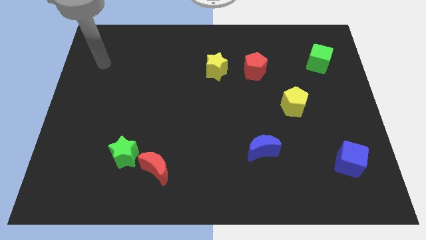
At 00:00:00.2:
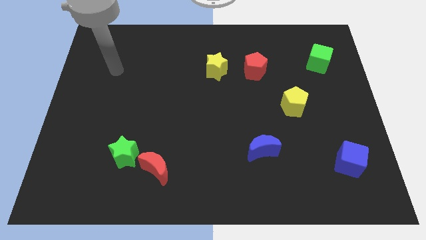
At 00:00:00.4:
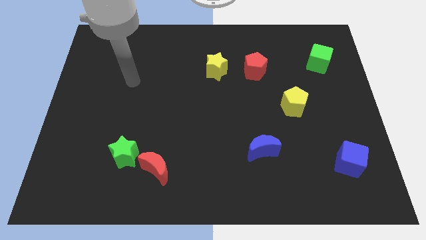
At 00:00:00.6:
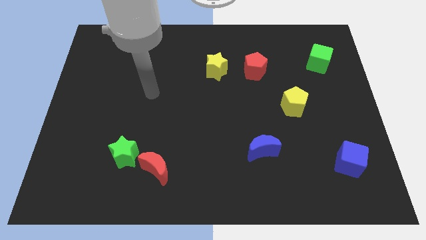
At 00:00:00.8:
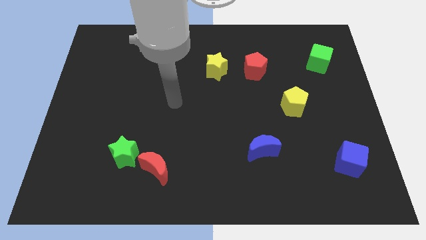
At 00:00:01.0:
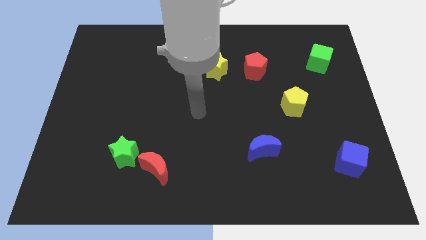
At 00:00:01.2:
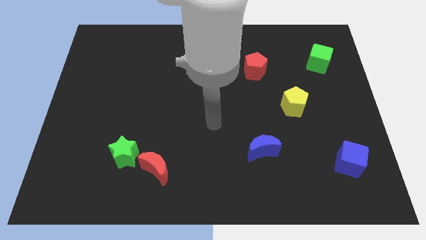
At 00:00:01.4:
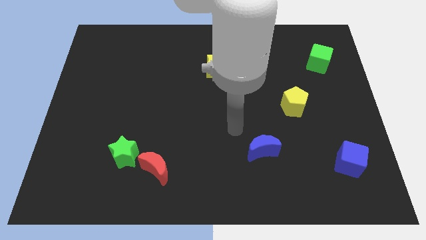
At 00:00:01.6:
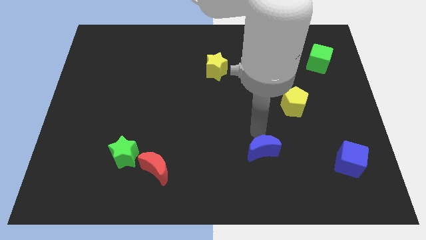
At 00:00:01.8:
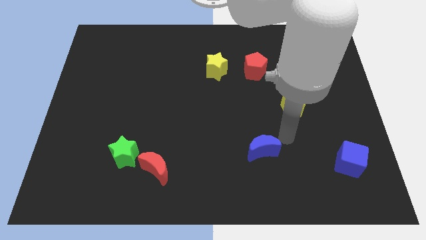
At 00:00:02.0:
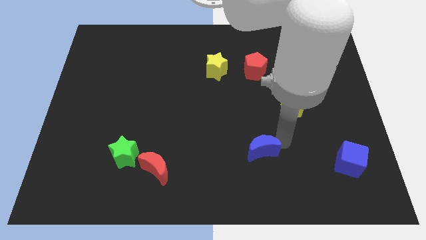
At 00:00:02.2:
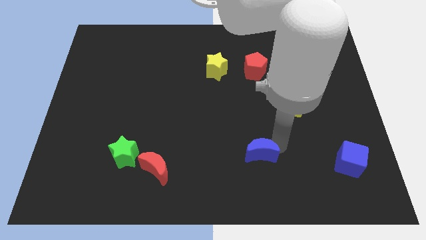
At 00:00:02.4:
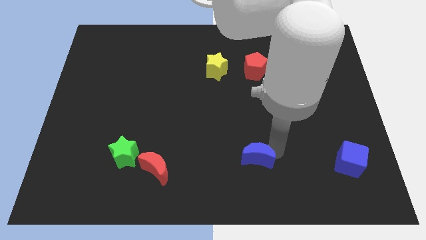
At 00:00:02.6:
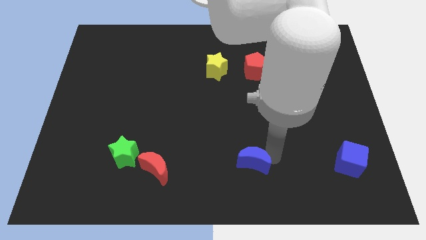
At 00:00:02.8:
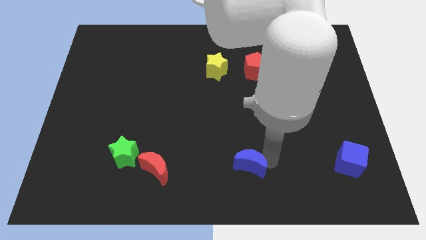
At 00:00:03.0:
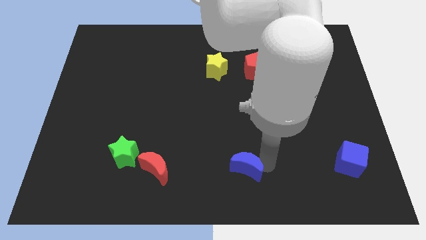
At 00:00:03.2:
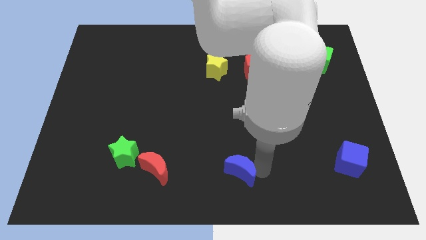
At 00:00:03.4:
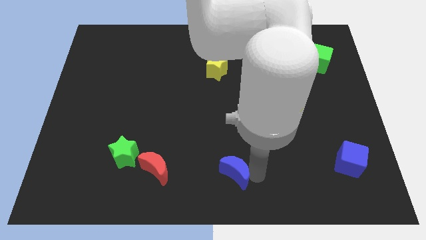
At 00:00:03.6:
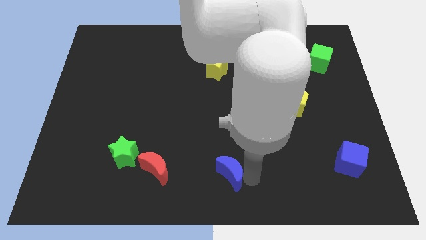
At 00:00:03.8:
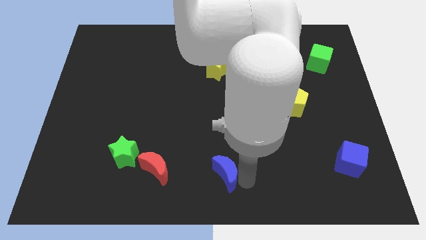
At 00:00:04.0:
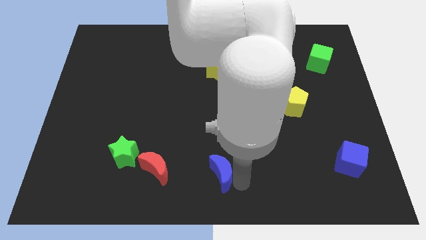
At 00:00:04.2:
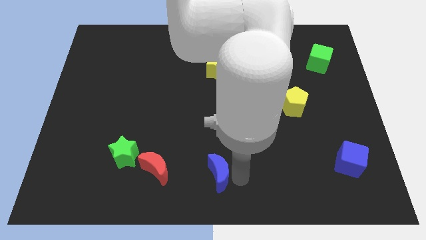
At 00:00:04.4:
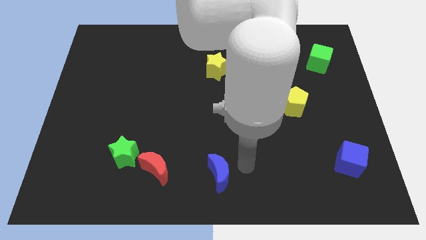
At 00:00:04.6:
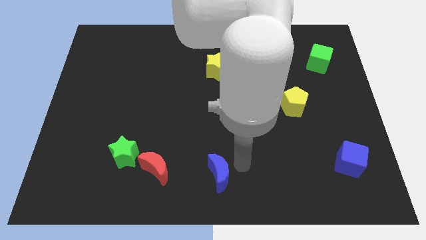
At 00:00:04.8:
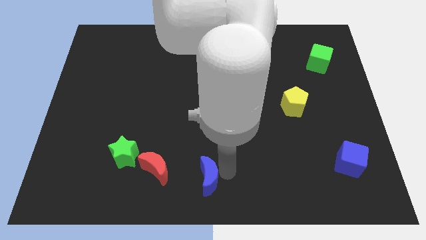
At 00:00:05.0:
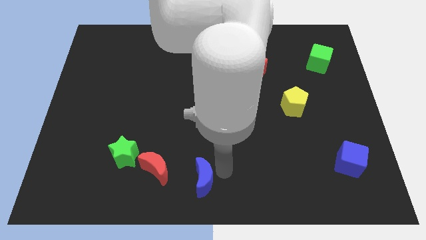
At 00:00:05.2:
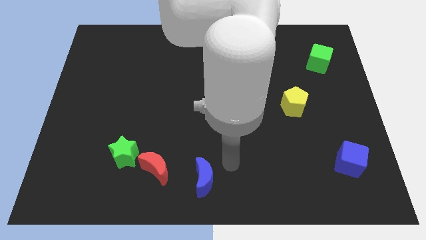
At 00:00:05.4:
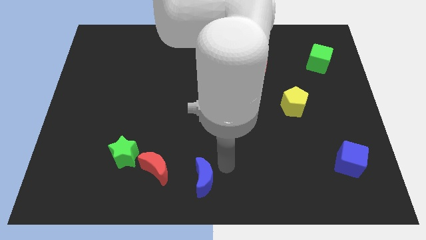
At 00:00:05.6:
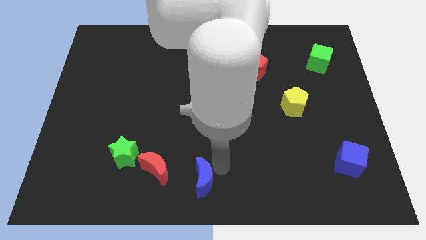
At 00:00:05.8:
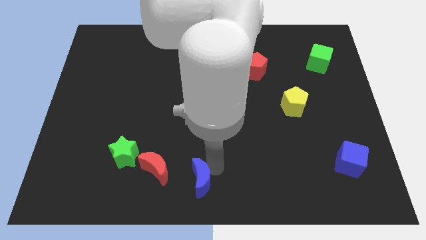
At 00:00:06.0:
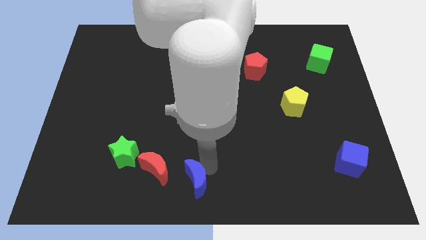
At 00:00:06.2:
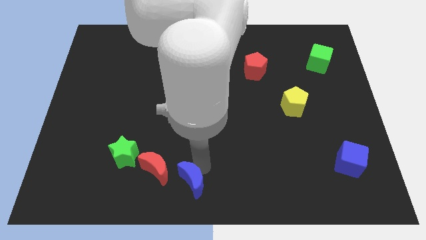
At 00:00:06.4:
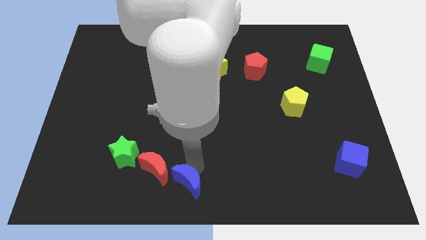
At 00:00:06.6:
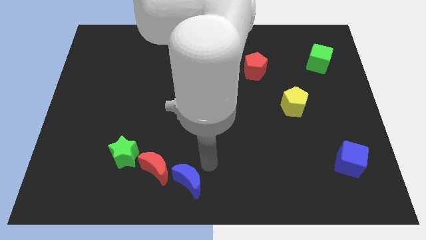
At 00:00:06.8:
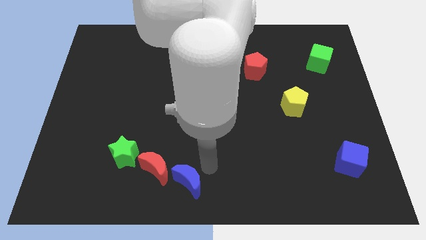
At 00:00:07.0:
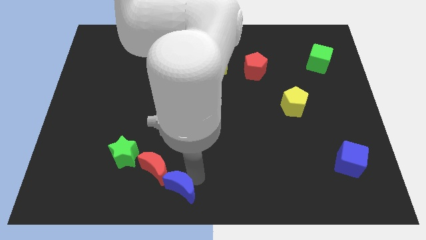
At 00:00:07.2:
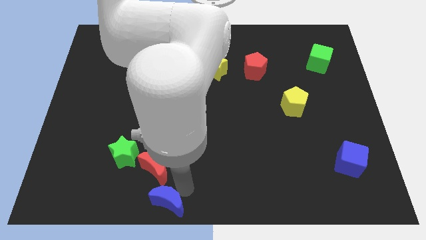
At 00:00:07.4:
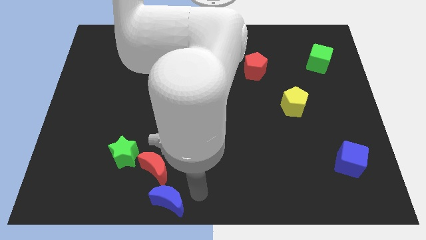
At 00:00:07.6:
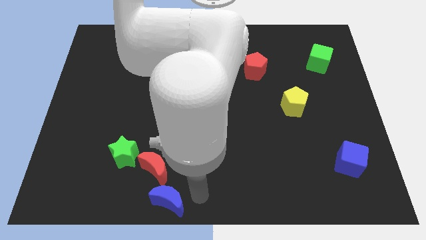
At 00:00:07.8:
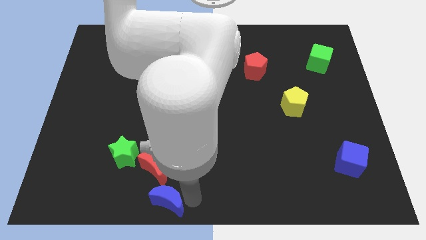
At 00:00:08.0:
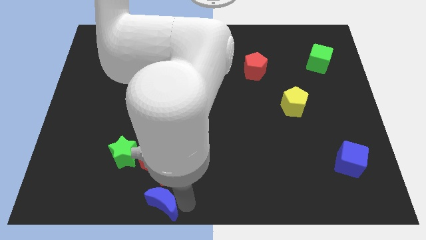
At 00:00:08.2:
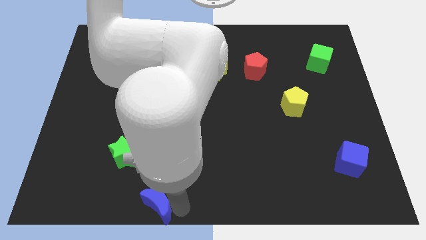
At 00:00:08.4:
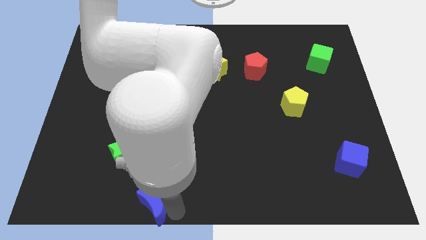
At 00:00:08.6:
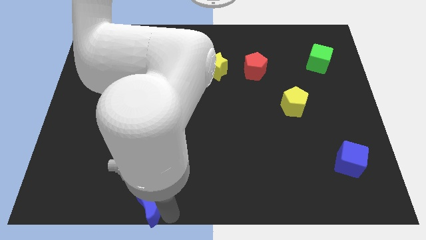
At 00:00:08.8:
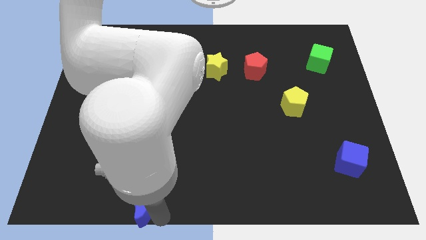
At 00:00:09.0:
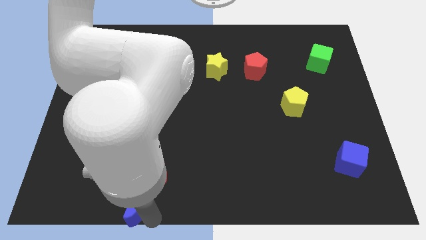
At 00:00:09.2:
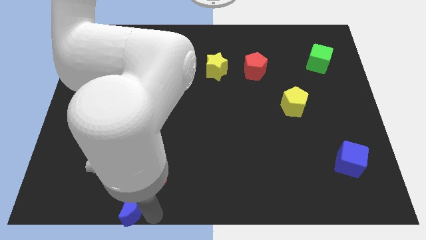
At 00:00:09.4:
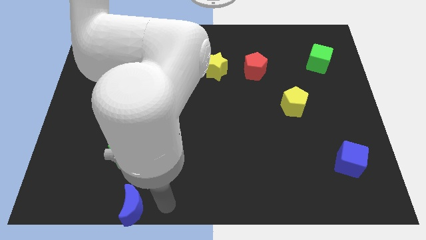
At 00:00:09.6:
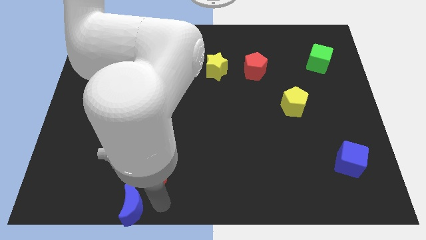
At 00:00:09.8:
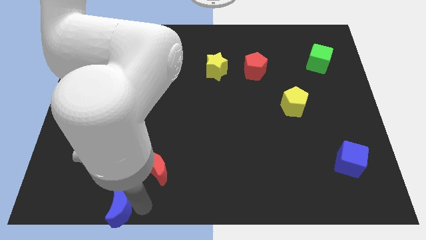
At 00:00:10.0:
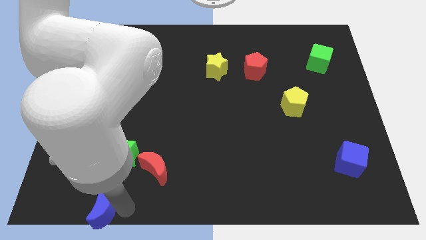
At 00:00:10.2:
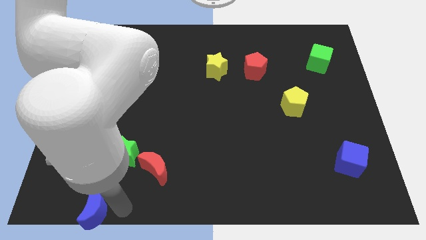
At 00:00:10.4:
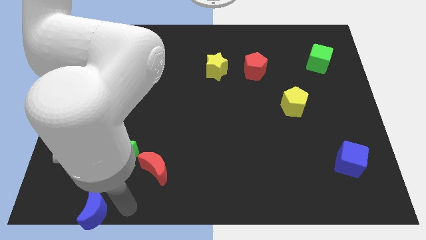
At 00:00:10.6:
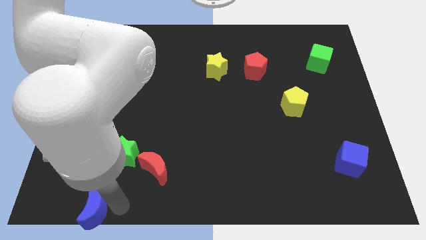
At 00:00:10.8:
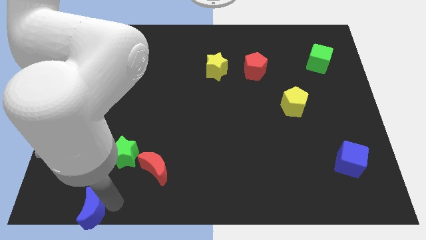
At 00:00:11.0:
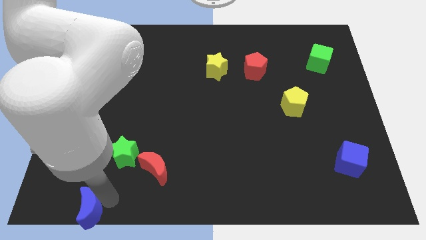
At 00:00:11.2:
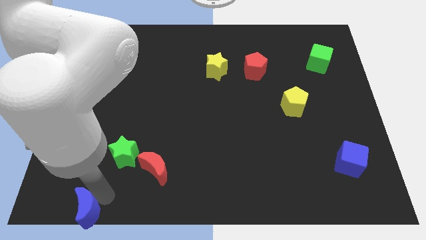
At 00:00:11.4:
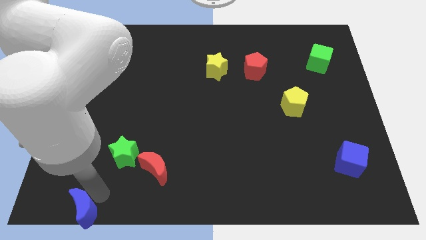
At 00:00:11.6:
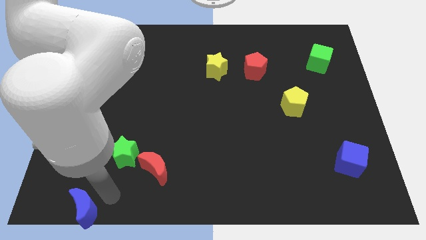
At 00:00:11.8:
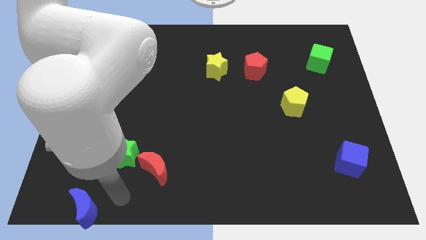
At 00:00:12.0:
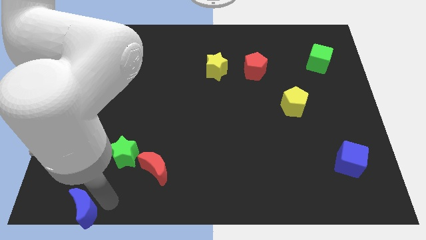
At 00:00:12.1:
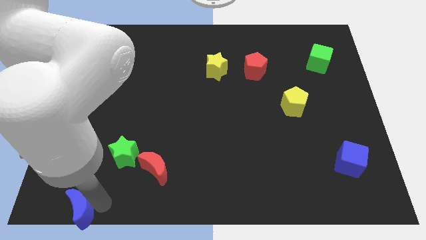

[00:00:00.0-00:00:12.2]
move the blue moon to the bottom left corner
